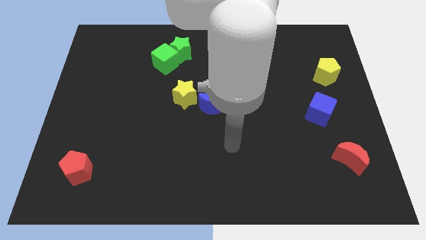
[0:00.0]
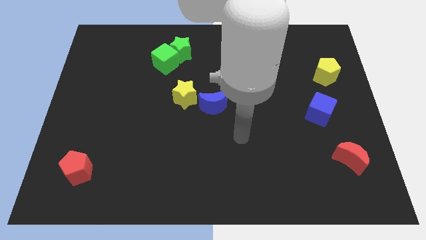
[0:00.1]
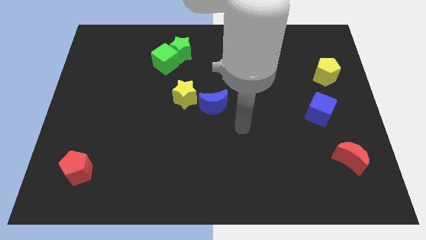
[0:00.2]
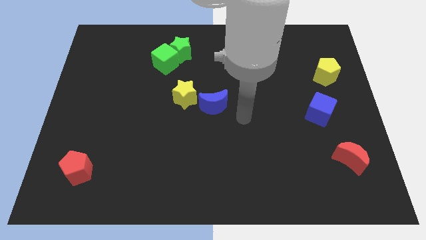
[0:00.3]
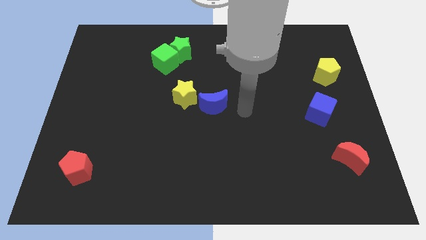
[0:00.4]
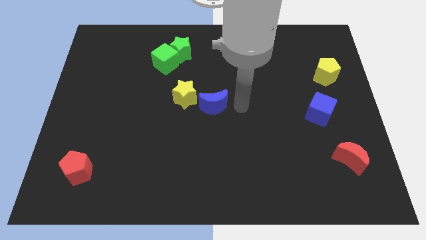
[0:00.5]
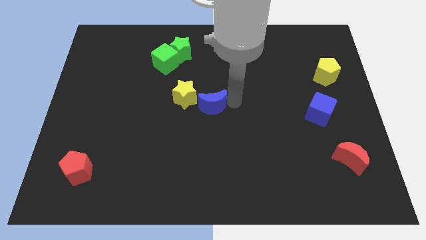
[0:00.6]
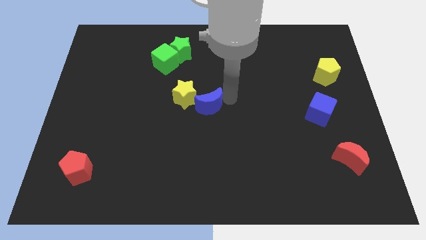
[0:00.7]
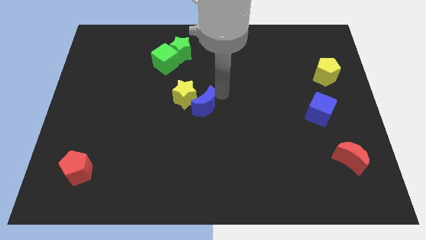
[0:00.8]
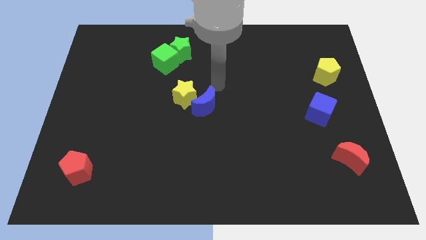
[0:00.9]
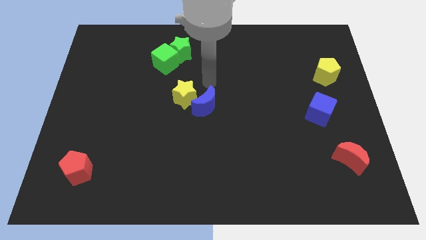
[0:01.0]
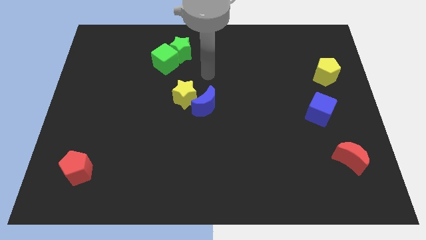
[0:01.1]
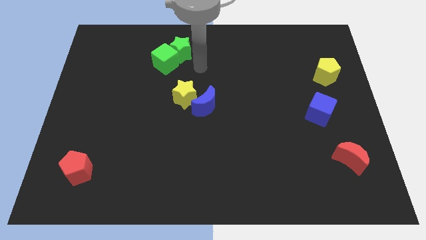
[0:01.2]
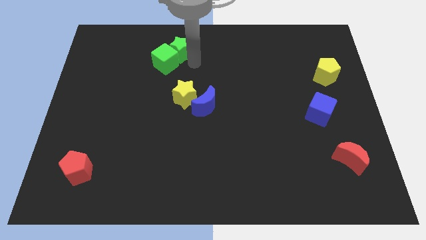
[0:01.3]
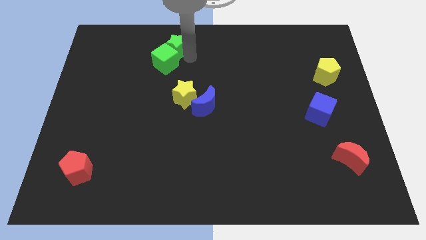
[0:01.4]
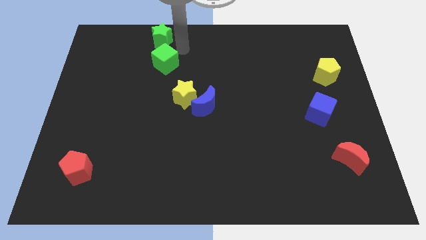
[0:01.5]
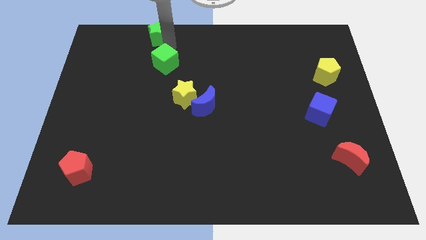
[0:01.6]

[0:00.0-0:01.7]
move the green cube away from the green star

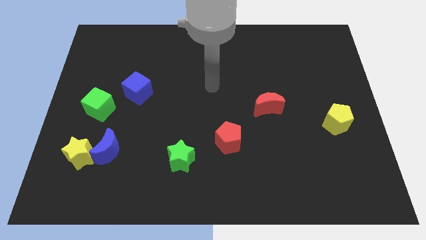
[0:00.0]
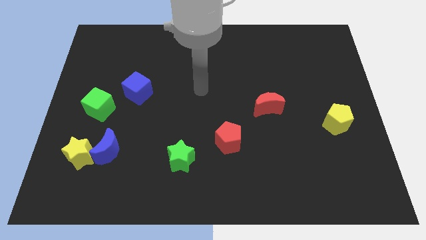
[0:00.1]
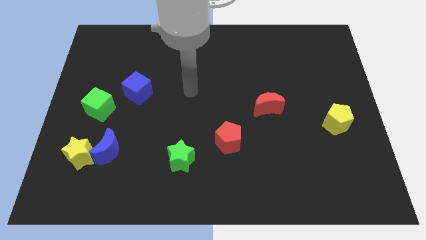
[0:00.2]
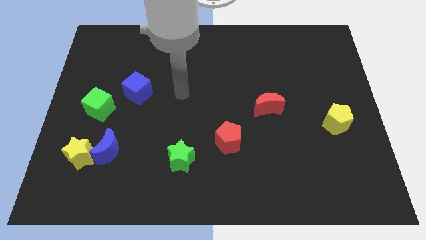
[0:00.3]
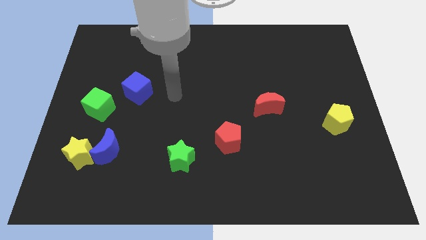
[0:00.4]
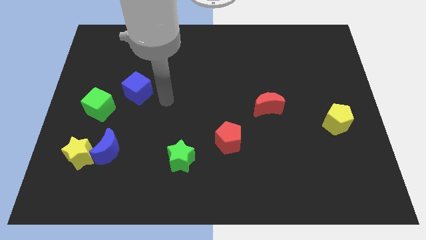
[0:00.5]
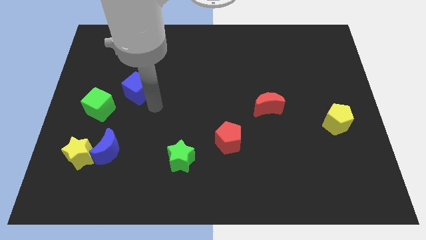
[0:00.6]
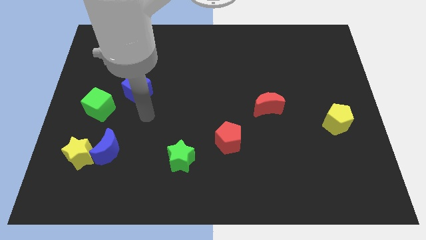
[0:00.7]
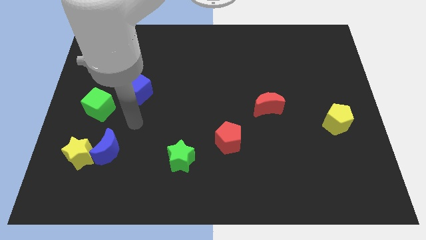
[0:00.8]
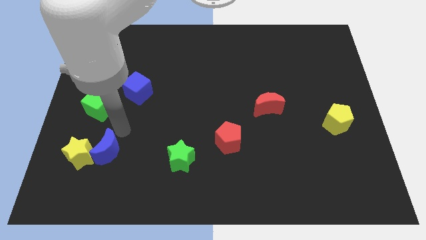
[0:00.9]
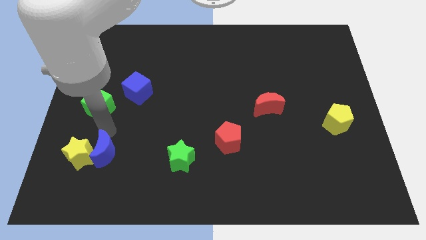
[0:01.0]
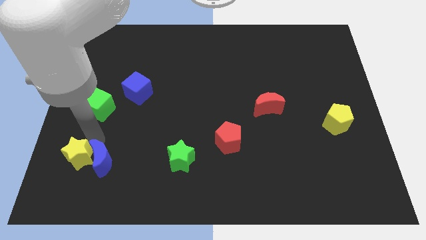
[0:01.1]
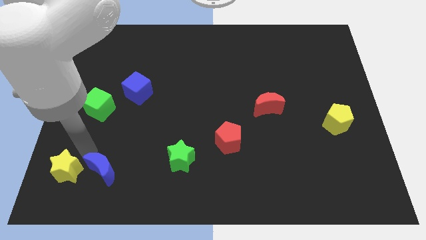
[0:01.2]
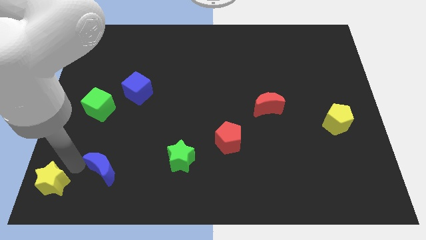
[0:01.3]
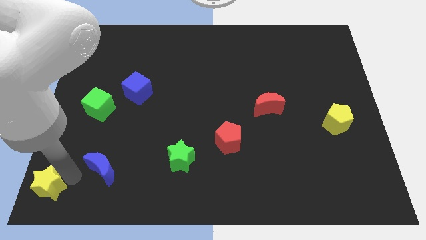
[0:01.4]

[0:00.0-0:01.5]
separate the blue moon from the yellow star

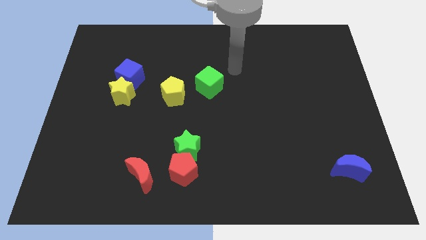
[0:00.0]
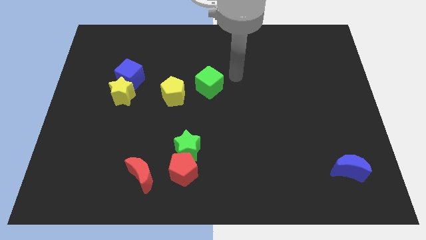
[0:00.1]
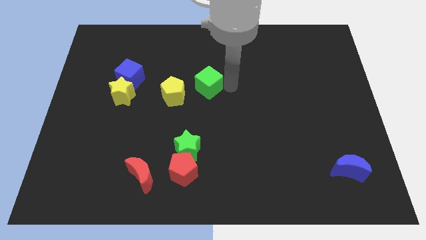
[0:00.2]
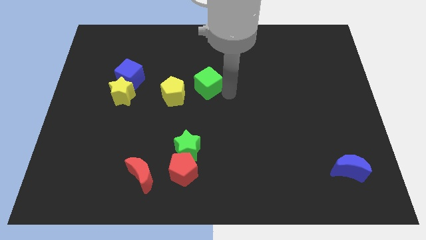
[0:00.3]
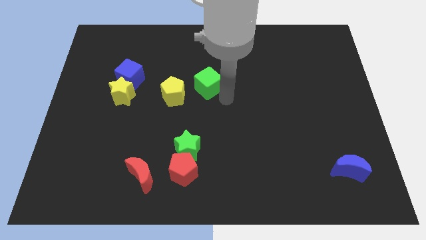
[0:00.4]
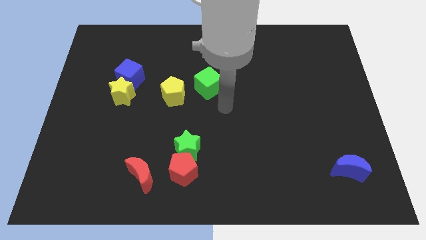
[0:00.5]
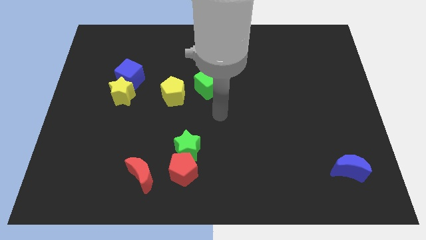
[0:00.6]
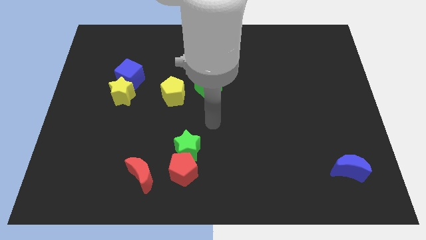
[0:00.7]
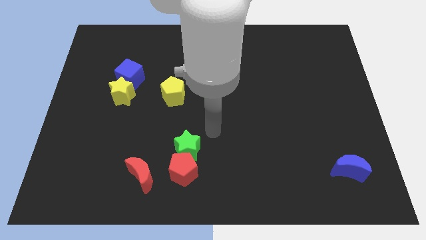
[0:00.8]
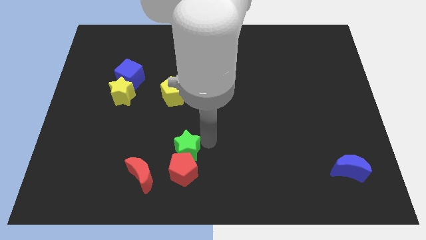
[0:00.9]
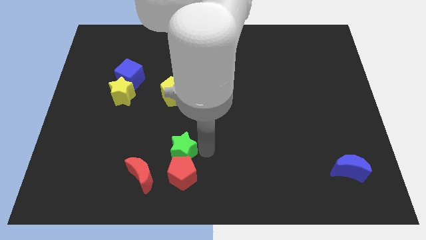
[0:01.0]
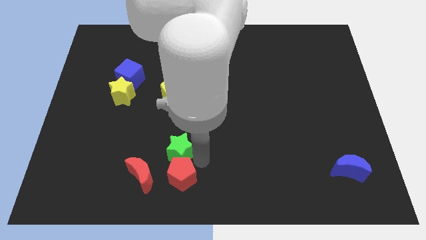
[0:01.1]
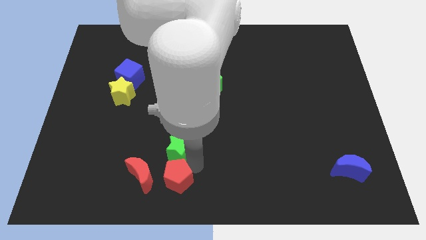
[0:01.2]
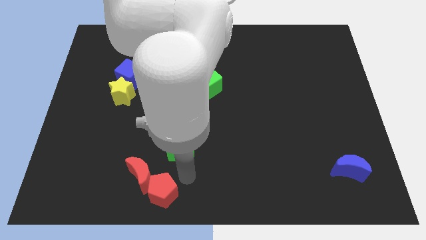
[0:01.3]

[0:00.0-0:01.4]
move the green star away from the red pentagon

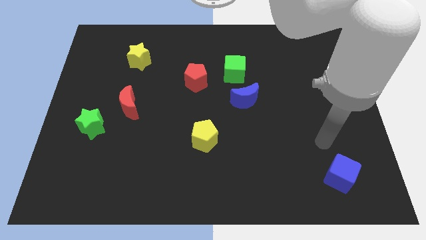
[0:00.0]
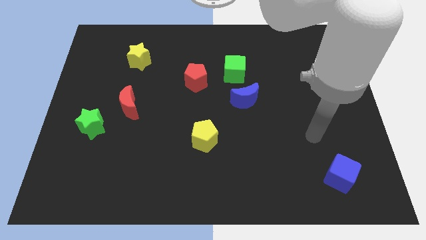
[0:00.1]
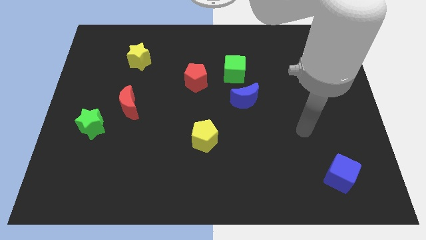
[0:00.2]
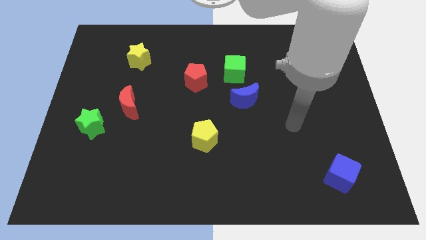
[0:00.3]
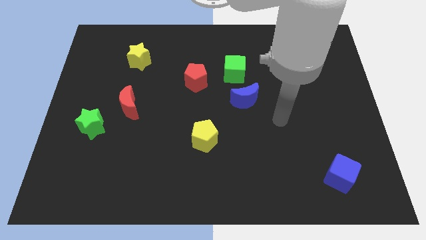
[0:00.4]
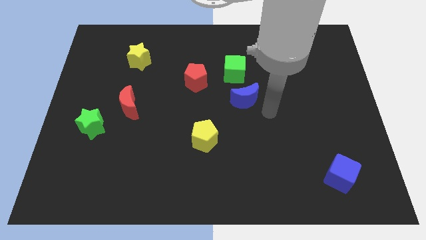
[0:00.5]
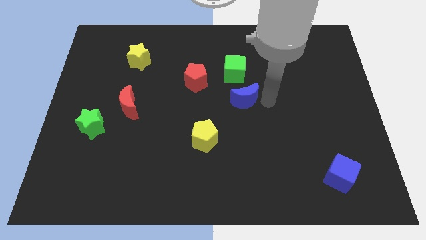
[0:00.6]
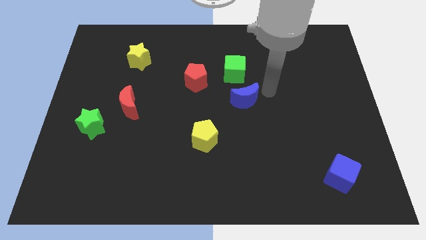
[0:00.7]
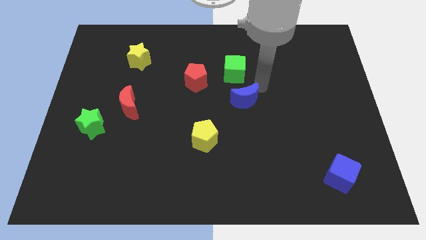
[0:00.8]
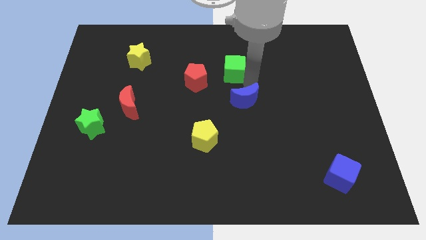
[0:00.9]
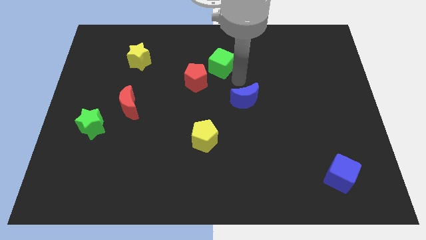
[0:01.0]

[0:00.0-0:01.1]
pull the blue moon apart from the green cube

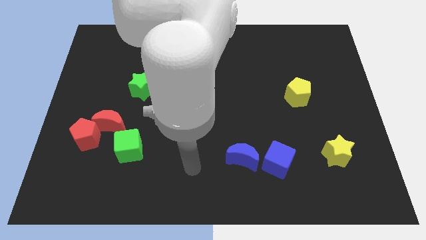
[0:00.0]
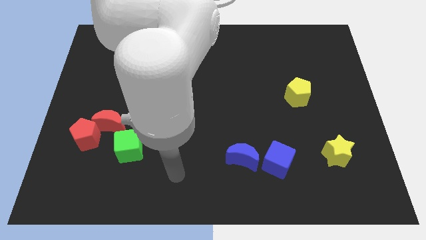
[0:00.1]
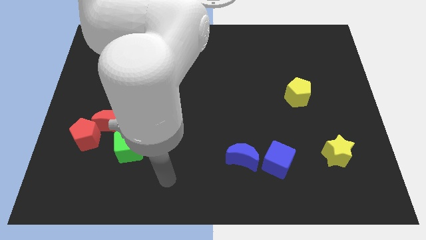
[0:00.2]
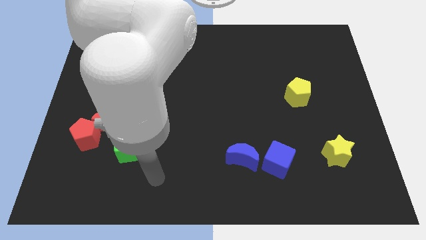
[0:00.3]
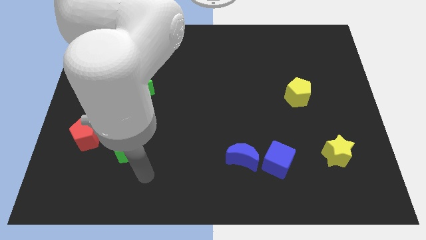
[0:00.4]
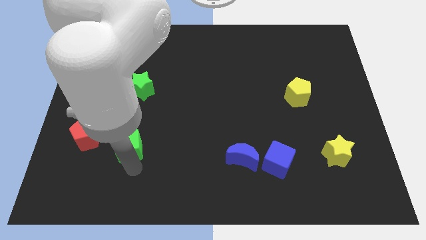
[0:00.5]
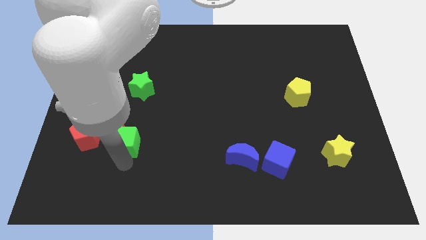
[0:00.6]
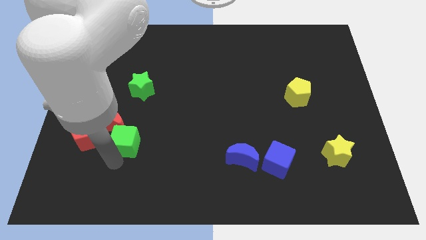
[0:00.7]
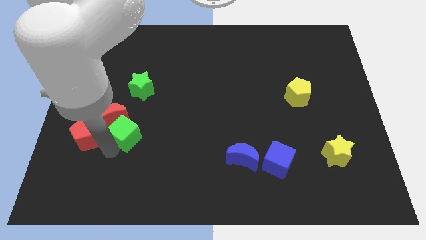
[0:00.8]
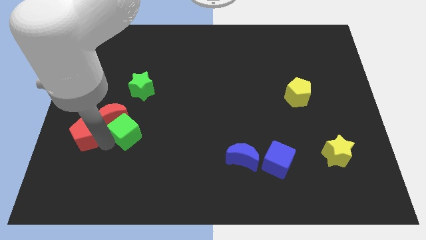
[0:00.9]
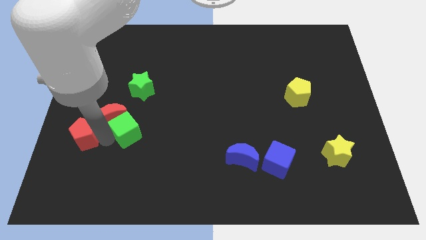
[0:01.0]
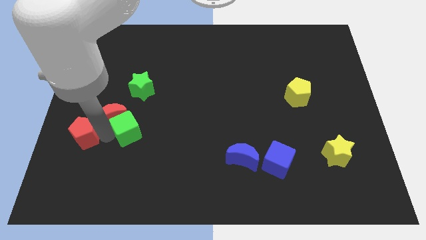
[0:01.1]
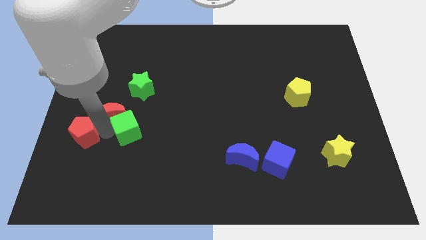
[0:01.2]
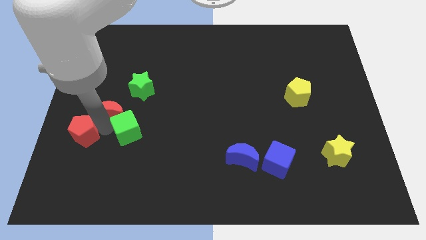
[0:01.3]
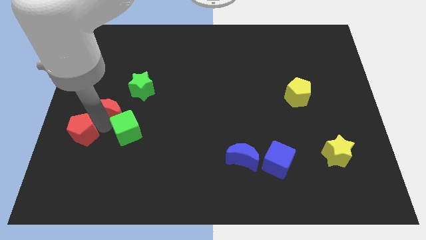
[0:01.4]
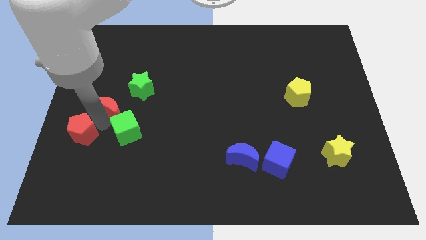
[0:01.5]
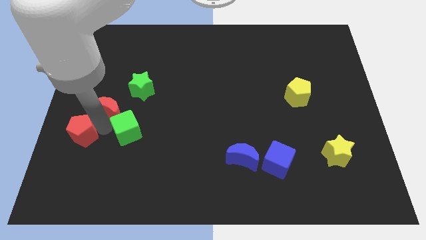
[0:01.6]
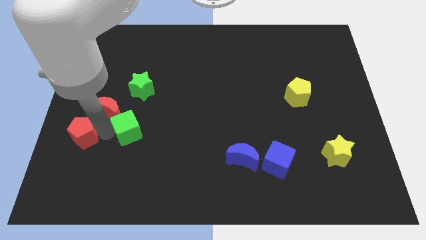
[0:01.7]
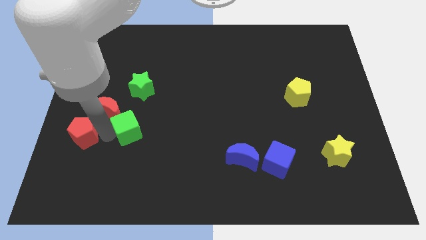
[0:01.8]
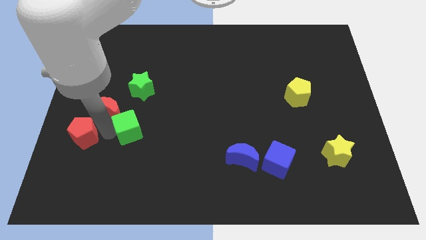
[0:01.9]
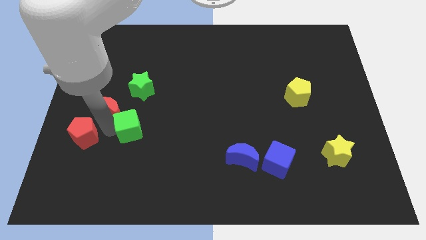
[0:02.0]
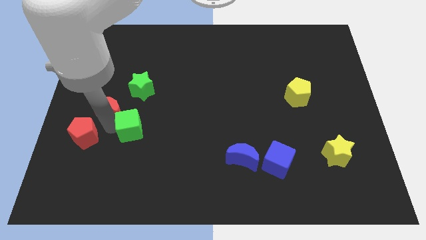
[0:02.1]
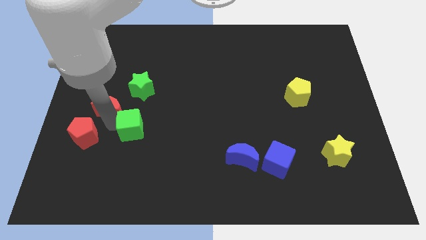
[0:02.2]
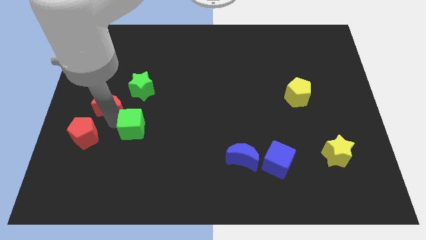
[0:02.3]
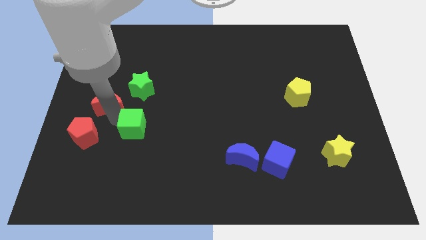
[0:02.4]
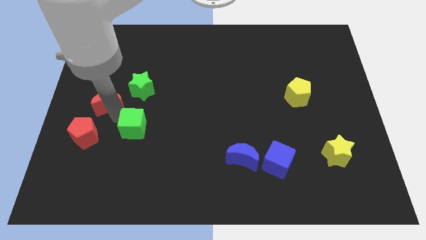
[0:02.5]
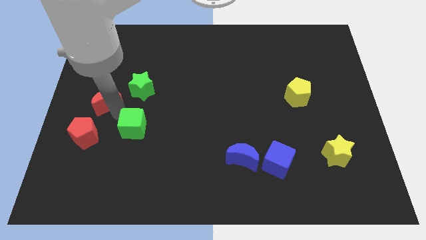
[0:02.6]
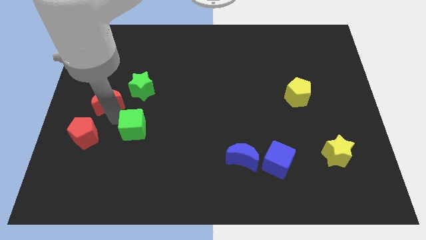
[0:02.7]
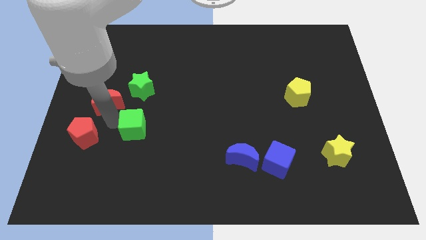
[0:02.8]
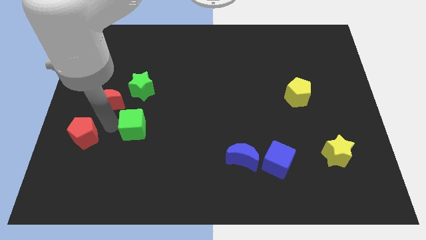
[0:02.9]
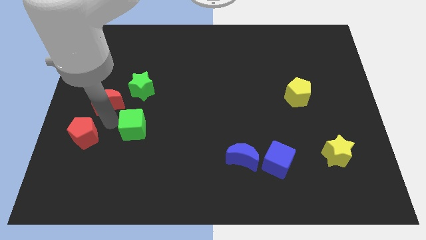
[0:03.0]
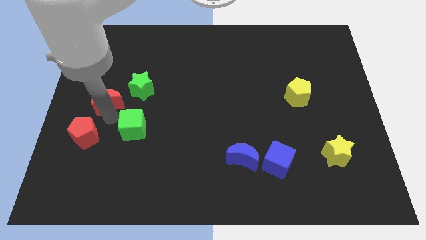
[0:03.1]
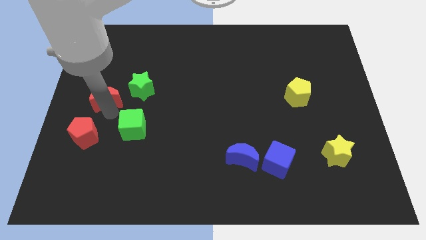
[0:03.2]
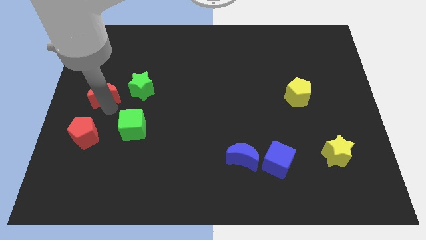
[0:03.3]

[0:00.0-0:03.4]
move the red moon away from the red pentagon and green cube

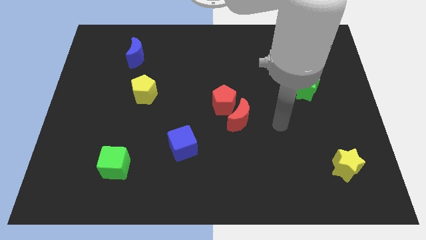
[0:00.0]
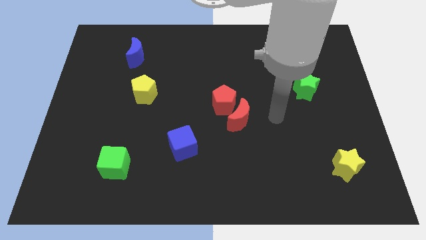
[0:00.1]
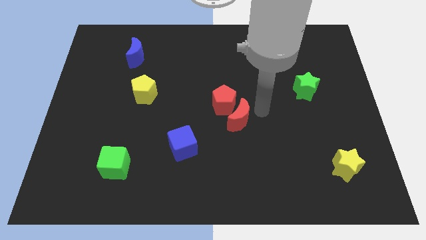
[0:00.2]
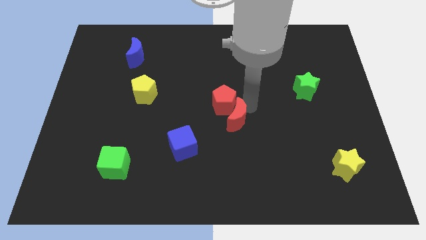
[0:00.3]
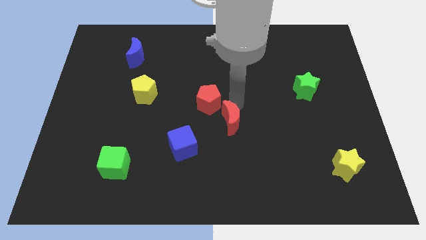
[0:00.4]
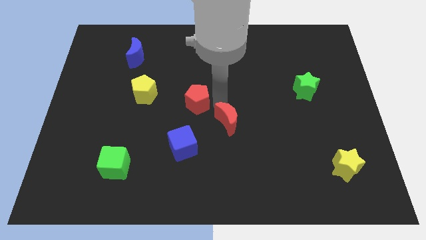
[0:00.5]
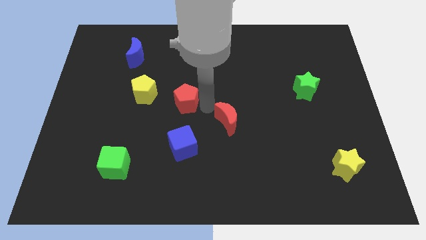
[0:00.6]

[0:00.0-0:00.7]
move the red moon away from the red pentagon